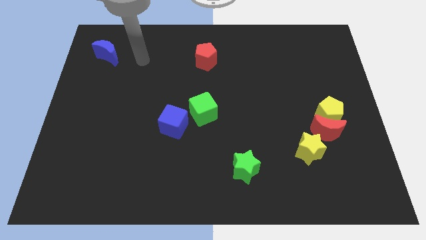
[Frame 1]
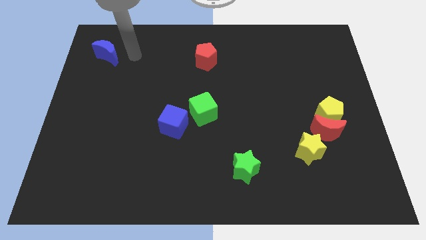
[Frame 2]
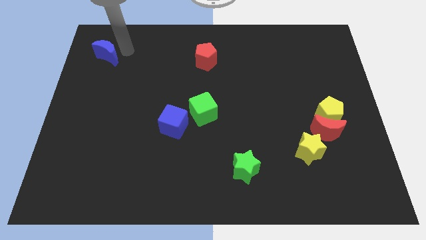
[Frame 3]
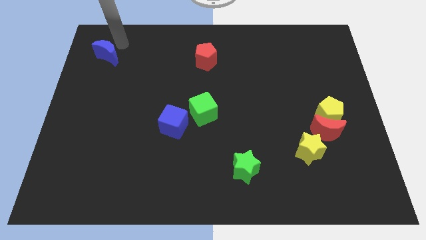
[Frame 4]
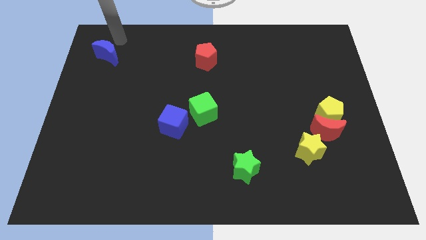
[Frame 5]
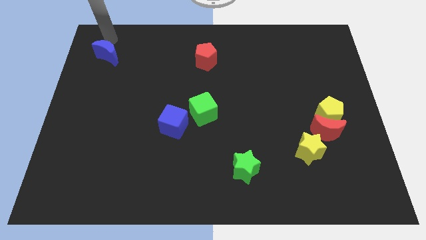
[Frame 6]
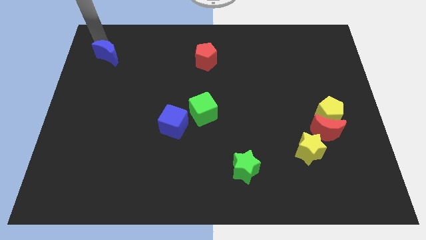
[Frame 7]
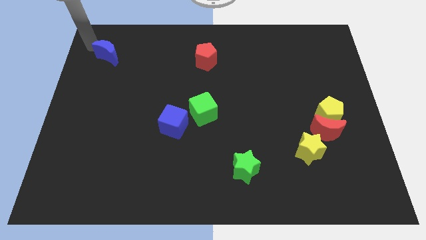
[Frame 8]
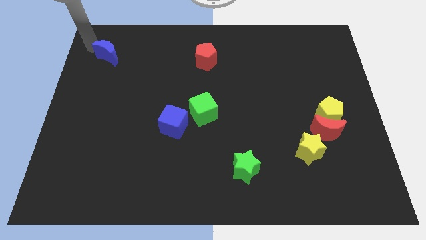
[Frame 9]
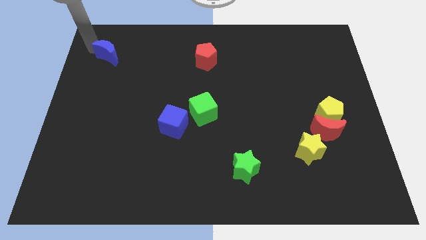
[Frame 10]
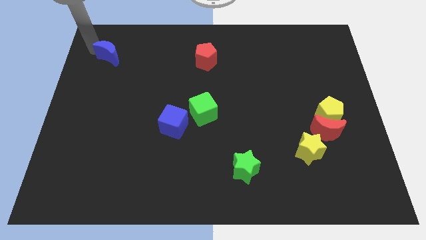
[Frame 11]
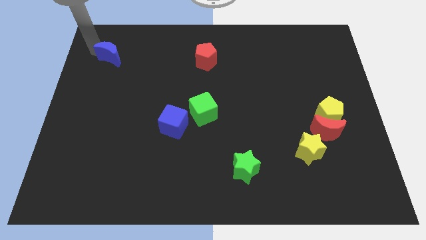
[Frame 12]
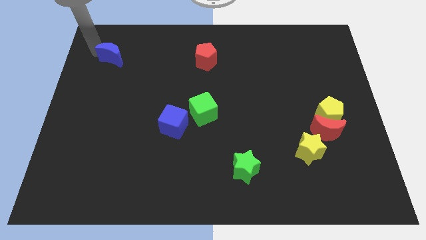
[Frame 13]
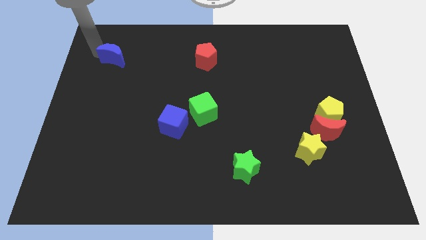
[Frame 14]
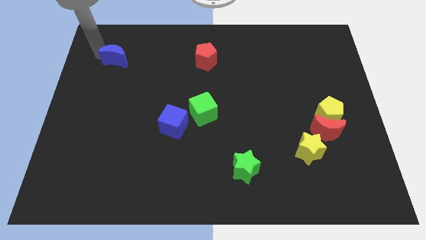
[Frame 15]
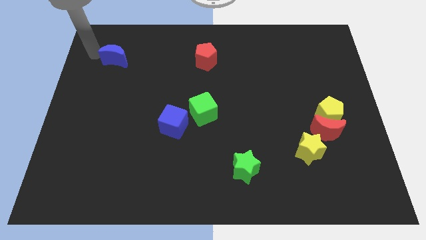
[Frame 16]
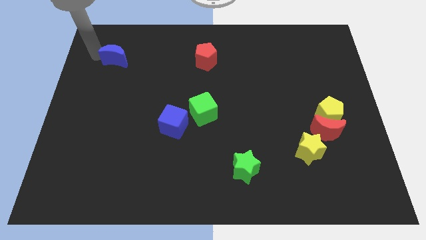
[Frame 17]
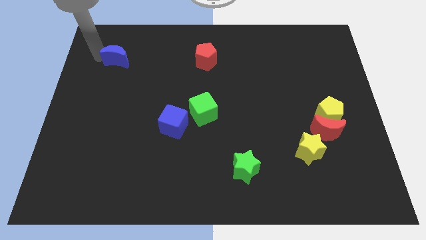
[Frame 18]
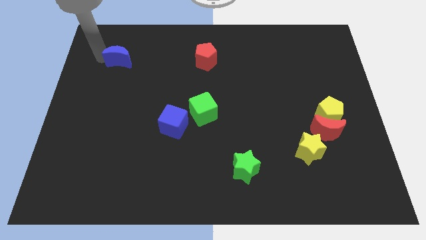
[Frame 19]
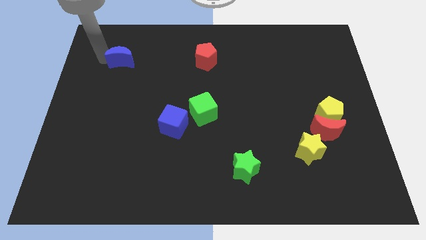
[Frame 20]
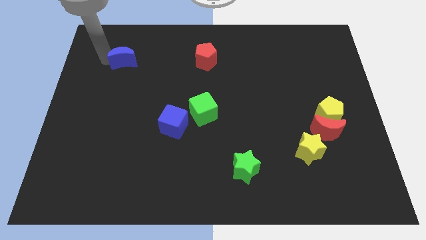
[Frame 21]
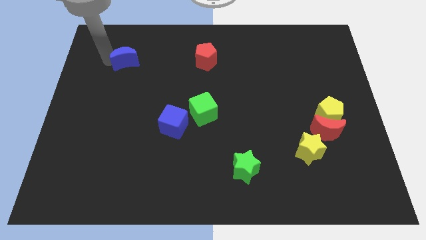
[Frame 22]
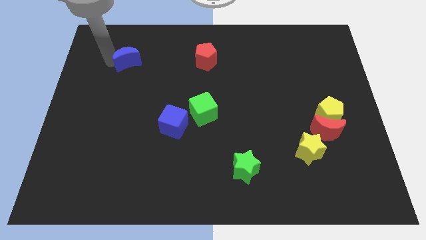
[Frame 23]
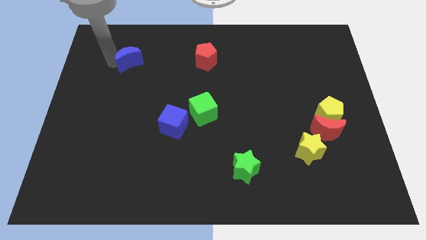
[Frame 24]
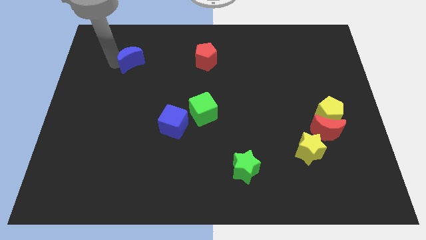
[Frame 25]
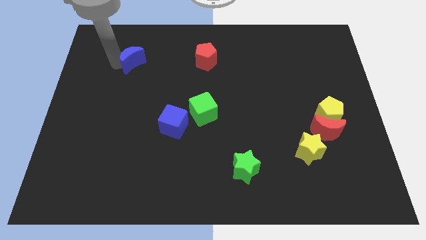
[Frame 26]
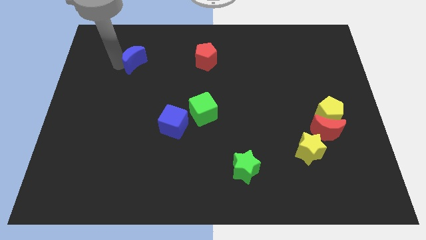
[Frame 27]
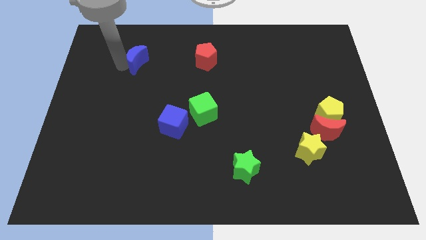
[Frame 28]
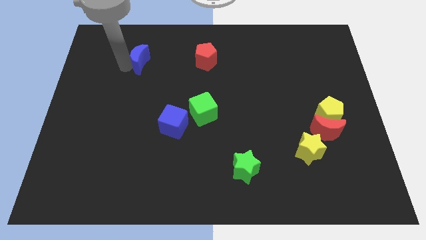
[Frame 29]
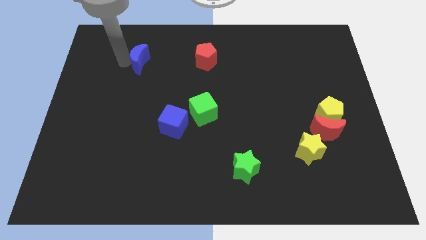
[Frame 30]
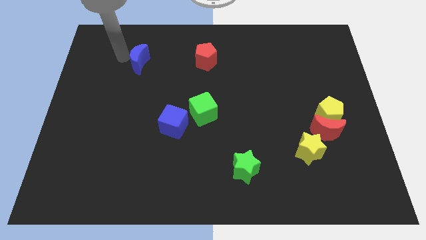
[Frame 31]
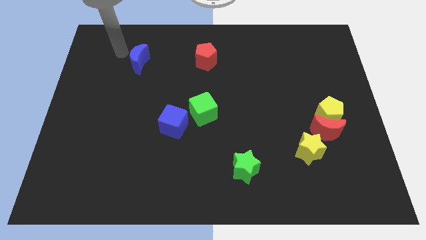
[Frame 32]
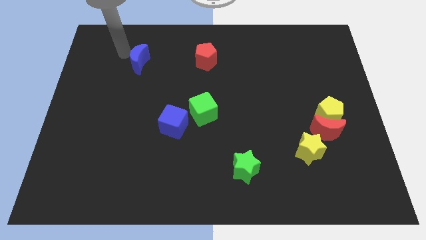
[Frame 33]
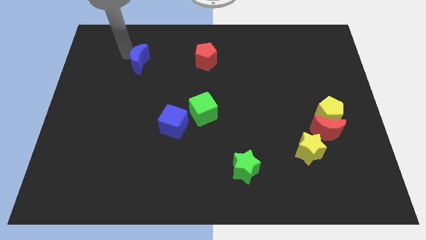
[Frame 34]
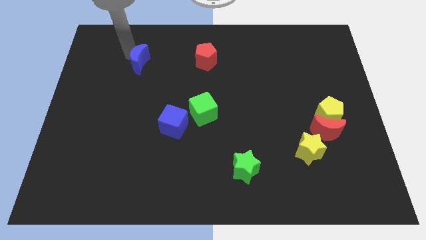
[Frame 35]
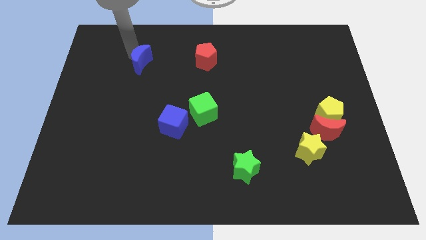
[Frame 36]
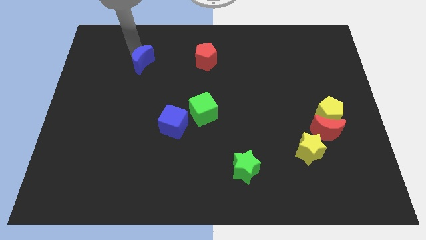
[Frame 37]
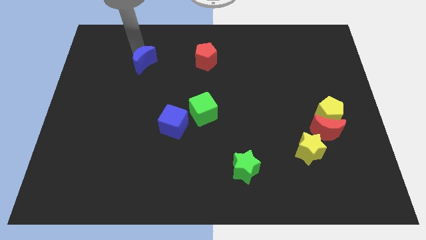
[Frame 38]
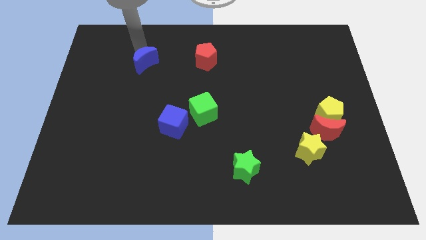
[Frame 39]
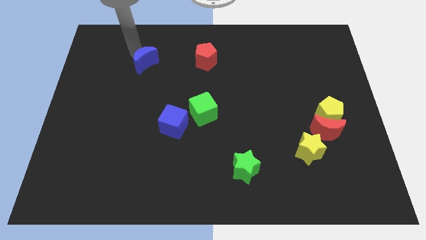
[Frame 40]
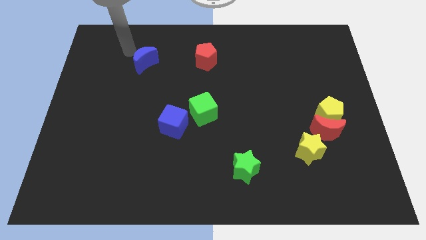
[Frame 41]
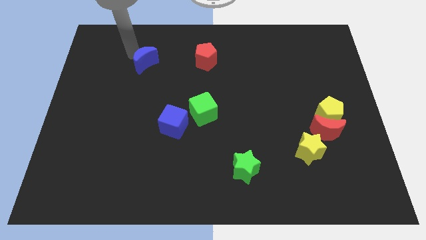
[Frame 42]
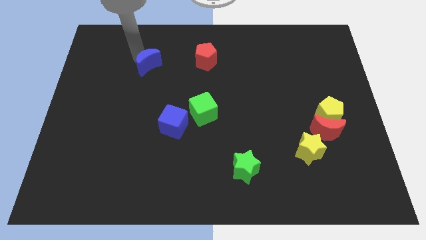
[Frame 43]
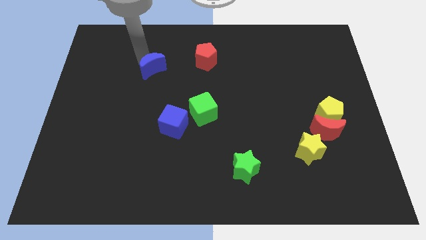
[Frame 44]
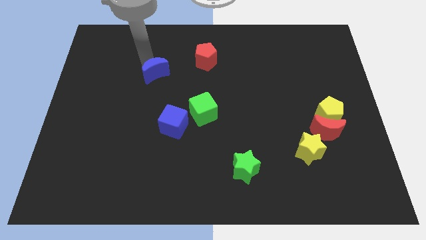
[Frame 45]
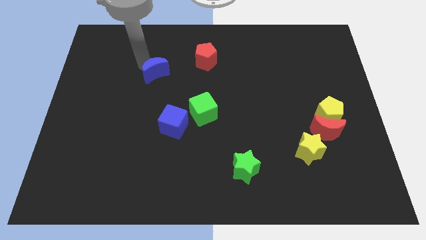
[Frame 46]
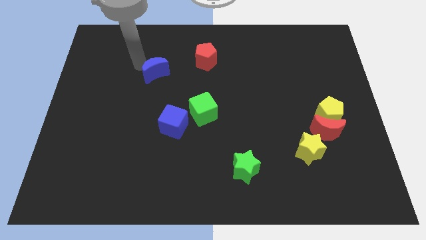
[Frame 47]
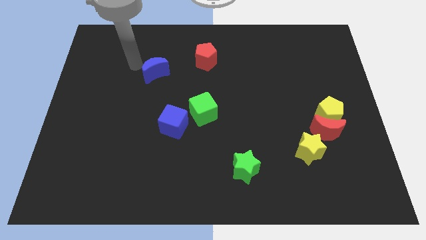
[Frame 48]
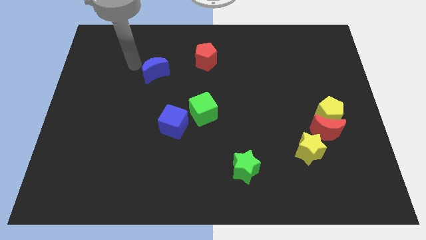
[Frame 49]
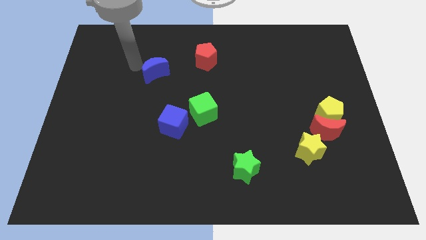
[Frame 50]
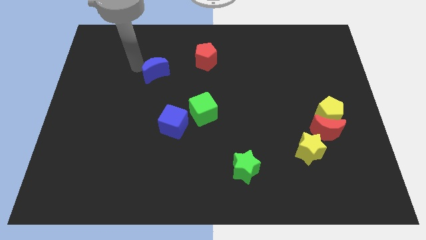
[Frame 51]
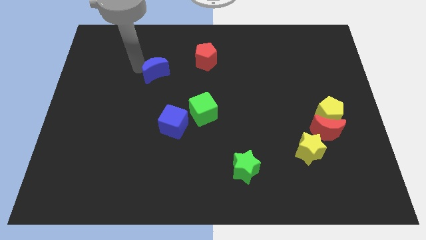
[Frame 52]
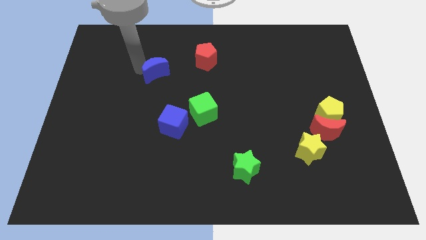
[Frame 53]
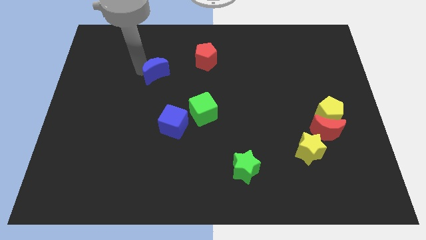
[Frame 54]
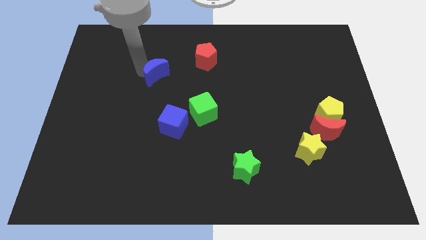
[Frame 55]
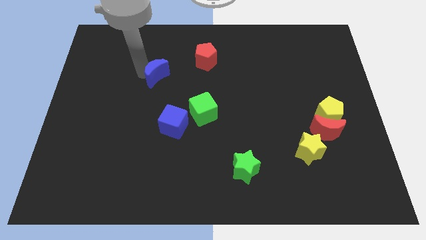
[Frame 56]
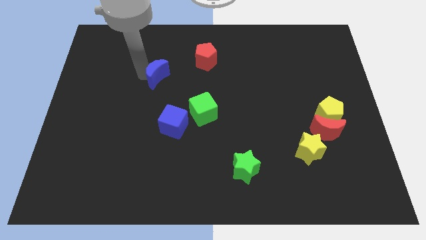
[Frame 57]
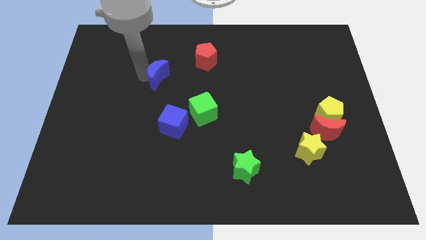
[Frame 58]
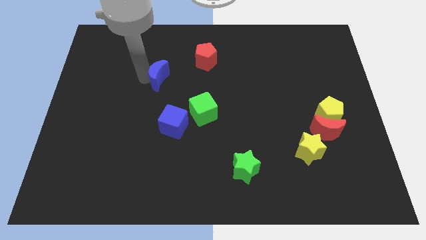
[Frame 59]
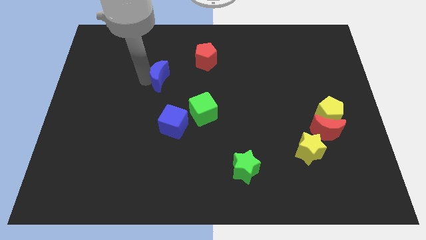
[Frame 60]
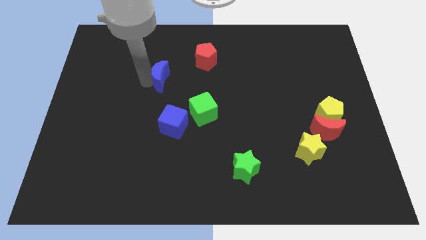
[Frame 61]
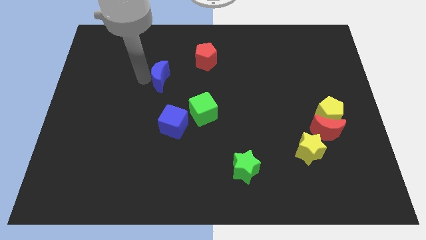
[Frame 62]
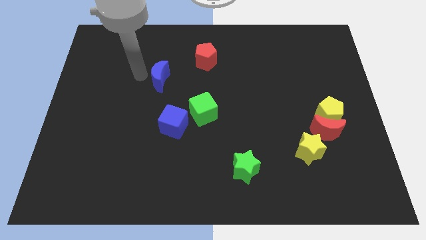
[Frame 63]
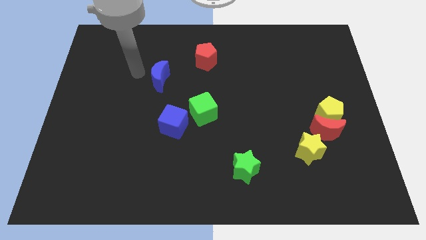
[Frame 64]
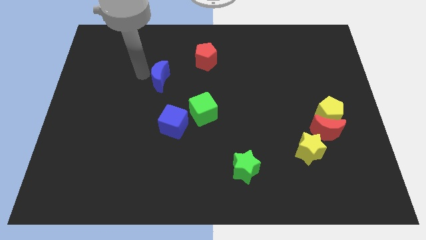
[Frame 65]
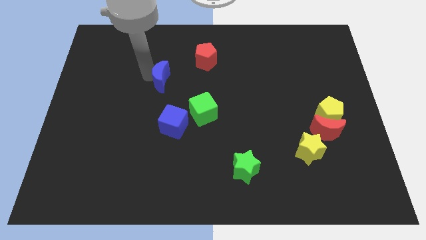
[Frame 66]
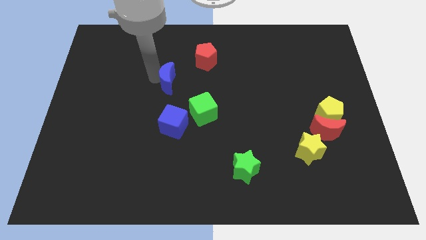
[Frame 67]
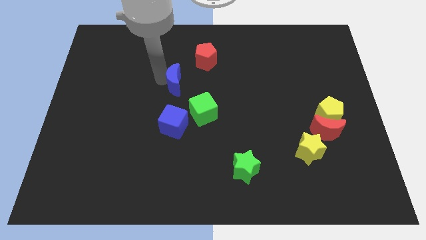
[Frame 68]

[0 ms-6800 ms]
slide the blue moon to the middle of the board
